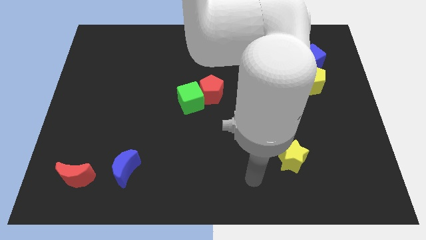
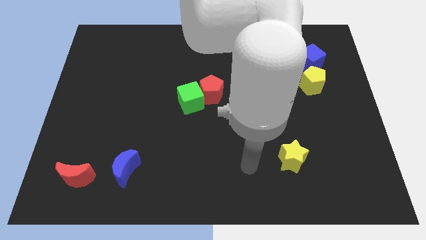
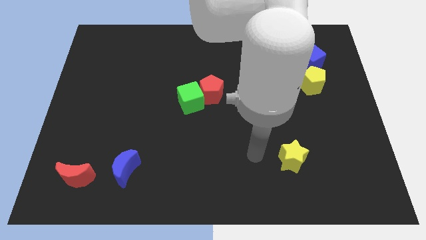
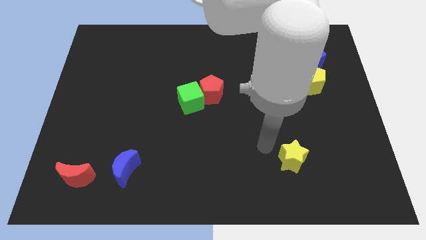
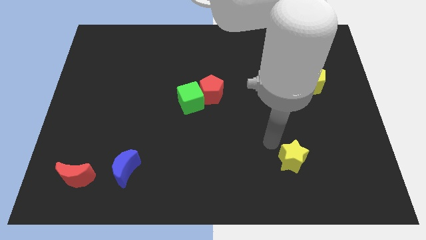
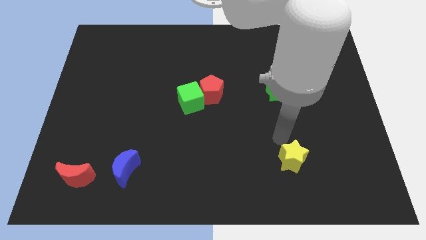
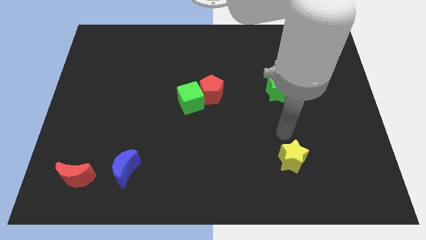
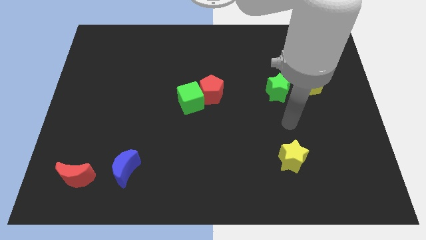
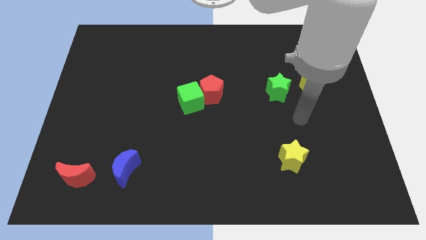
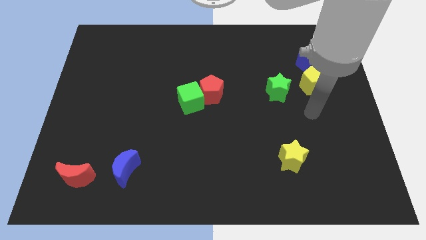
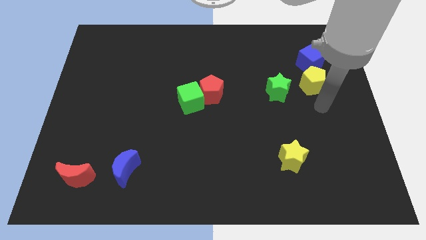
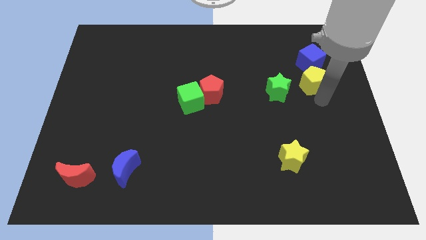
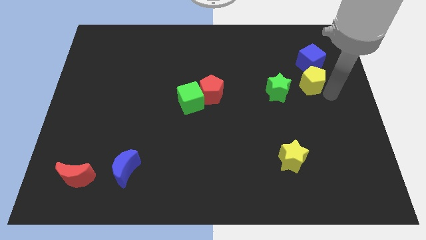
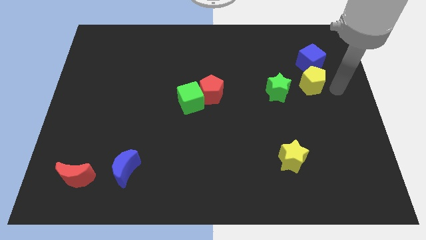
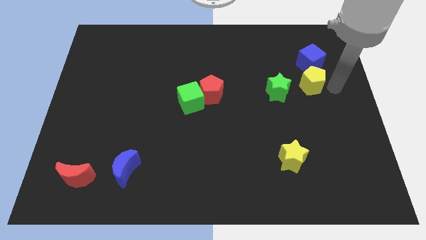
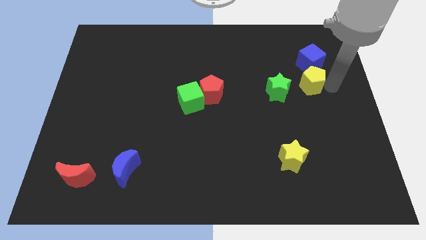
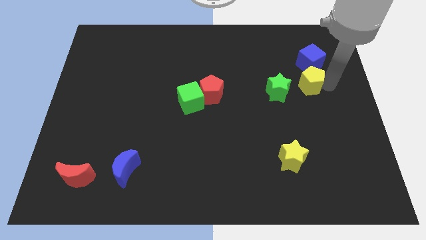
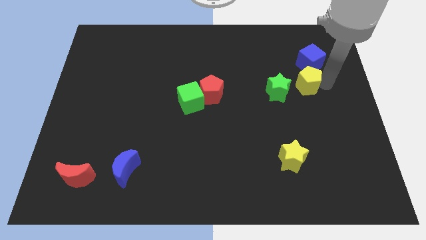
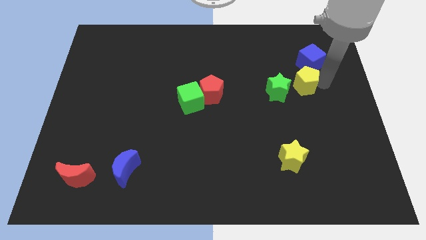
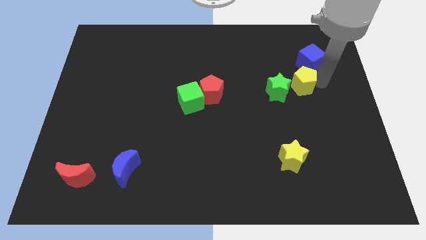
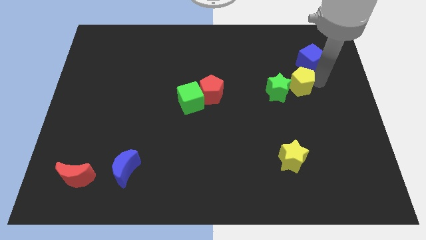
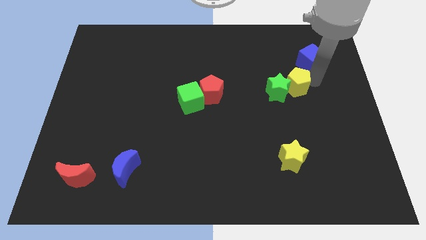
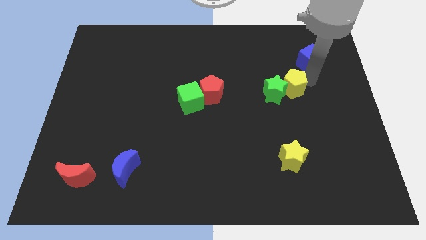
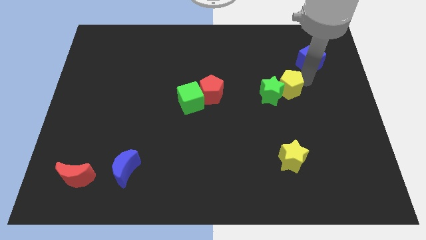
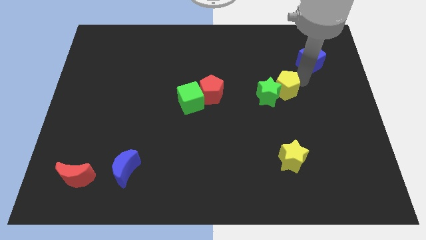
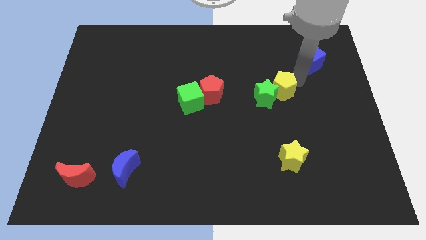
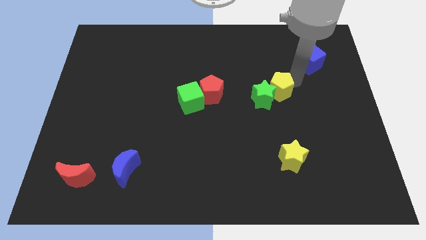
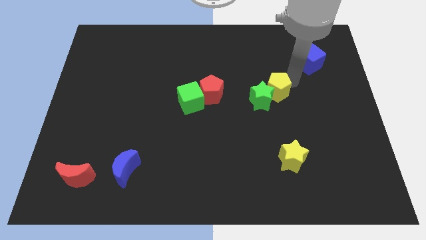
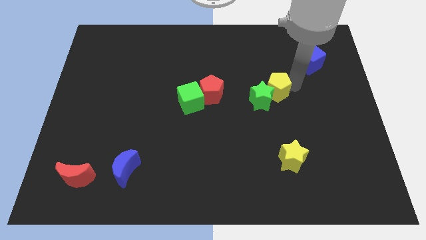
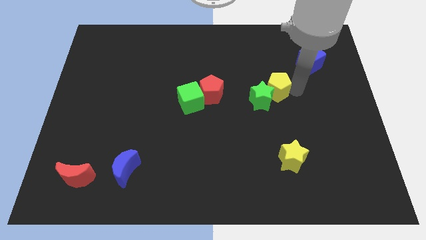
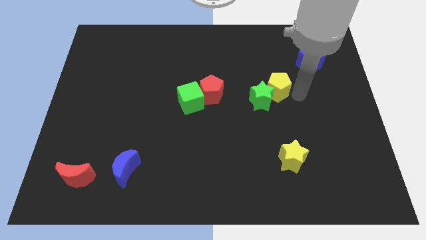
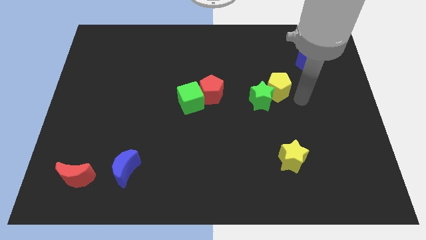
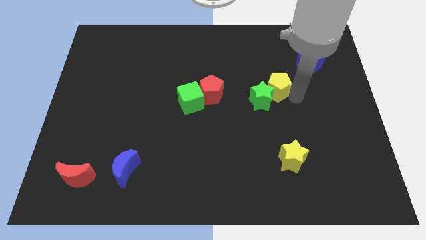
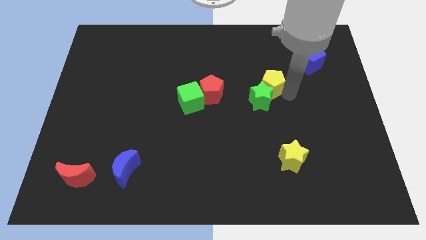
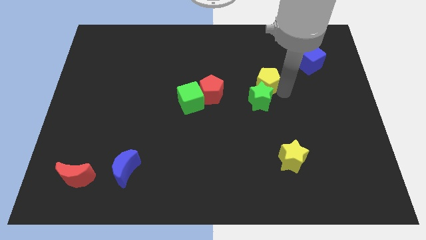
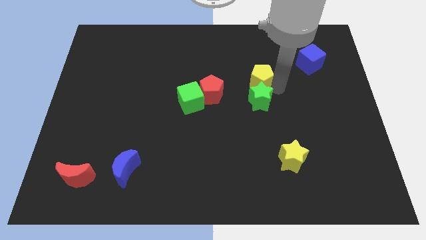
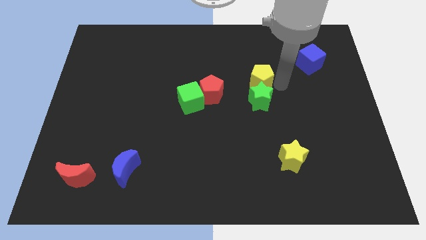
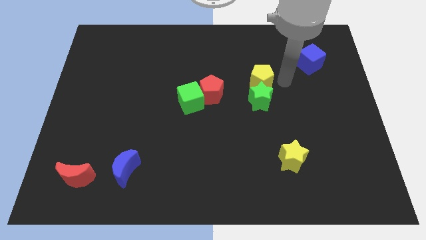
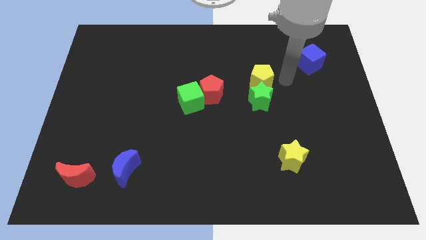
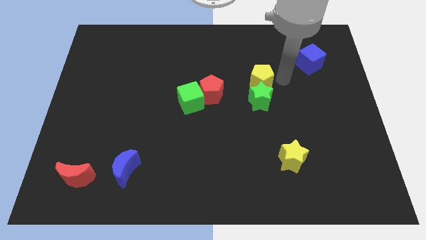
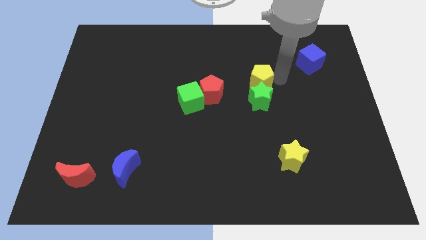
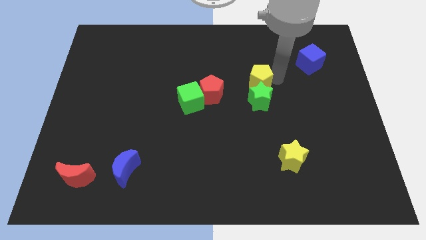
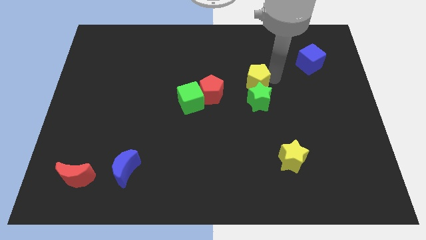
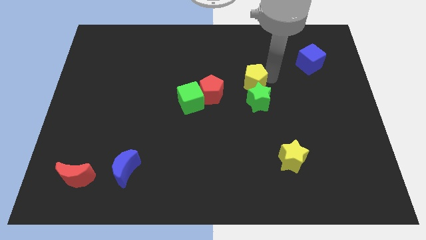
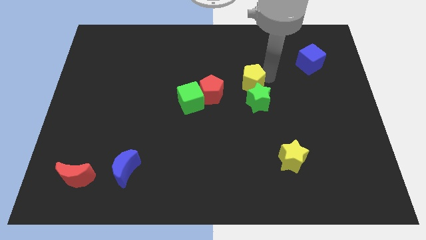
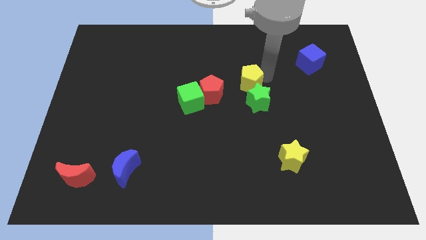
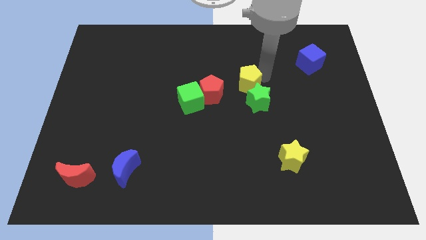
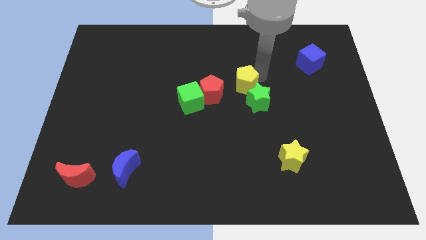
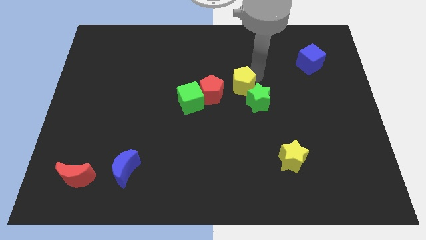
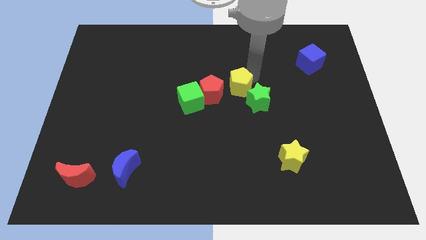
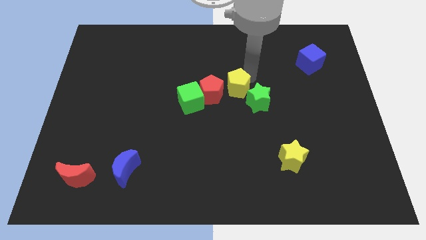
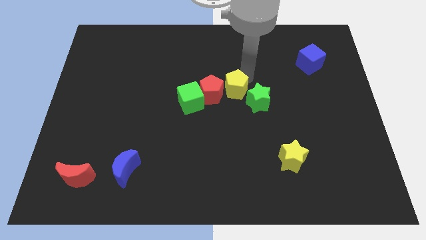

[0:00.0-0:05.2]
put the yellow pentagon close to the red pentagon
